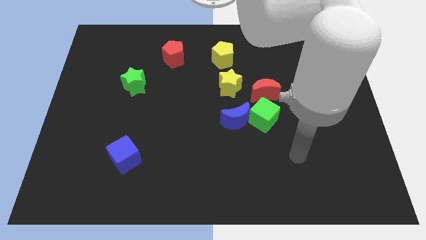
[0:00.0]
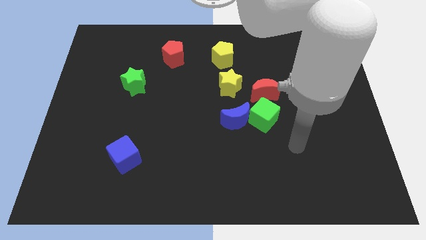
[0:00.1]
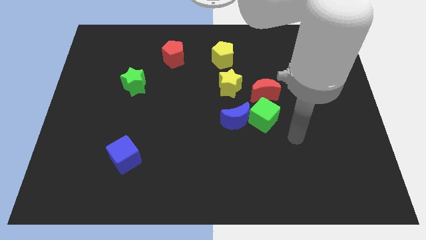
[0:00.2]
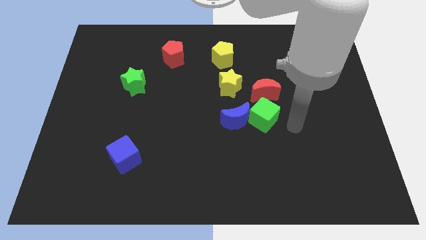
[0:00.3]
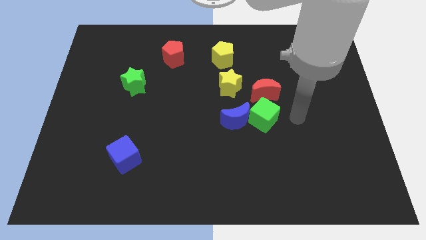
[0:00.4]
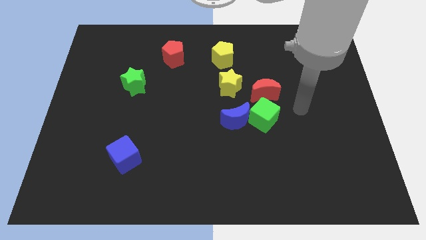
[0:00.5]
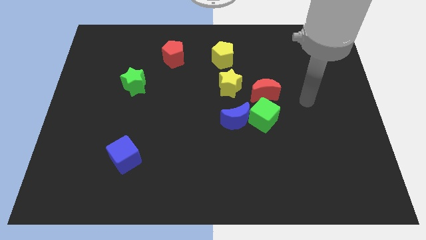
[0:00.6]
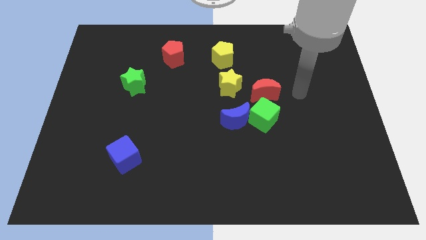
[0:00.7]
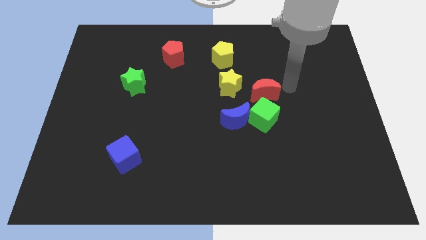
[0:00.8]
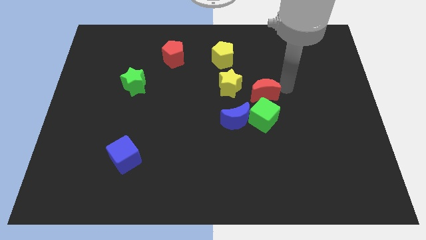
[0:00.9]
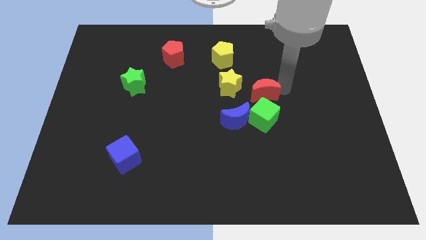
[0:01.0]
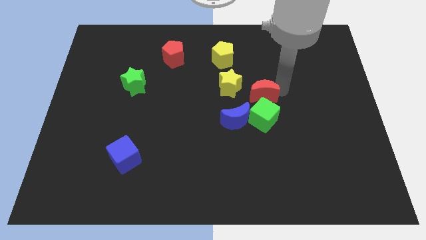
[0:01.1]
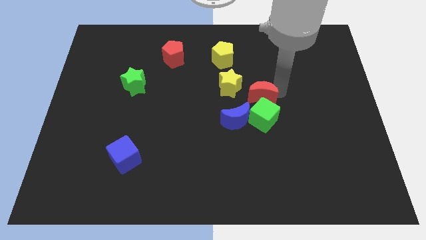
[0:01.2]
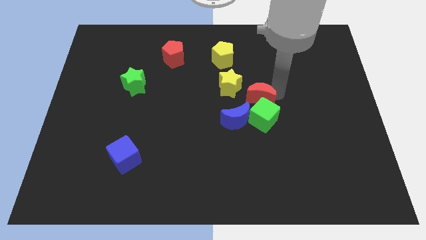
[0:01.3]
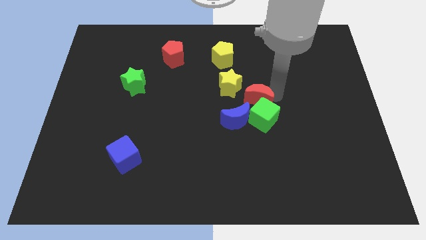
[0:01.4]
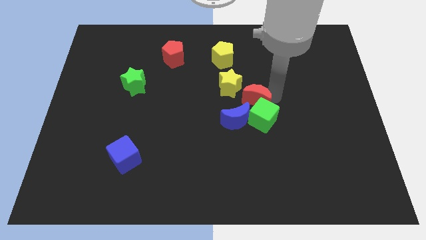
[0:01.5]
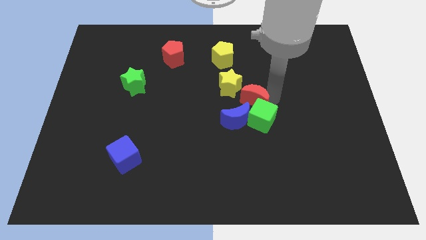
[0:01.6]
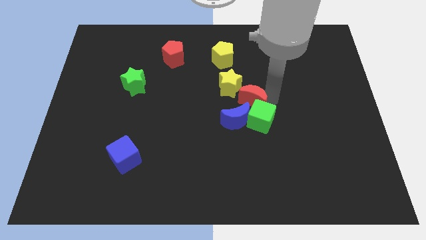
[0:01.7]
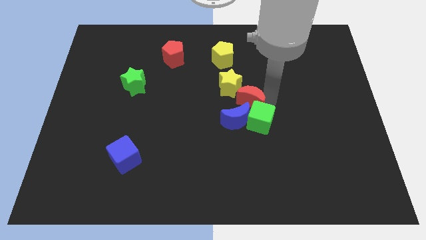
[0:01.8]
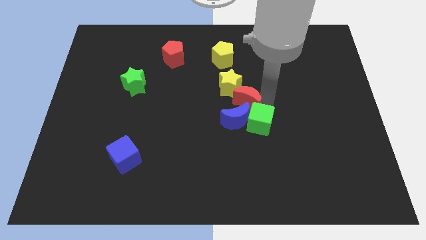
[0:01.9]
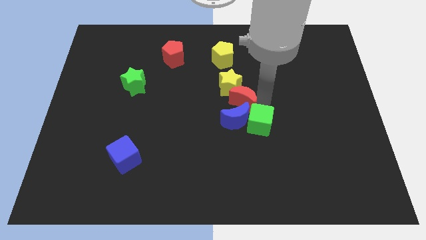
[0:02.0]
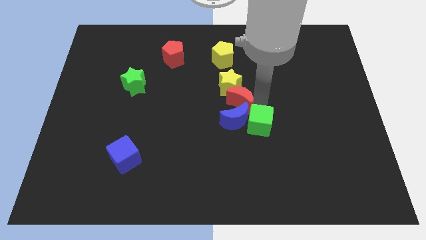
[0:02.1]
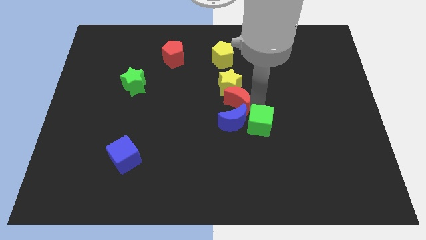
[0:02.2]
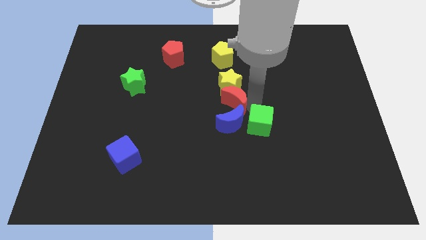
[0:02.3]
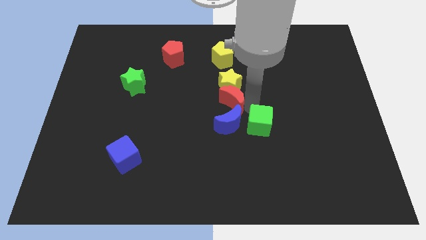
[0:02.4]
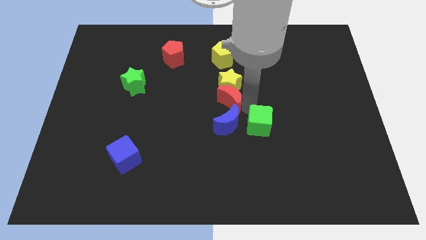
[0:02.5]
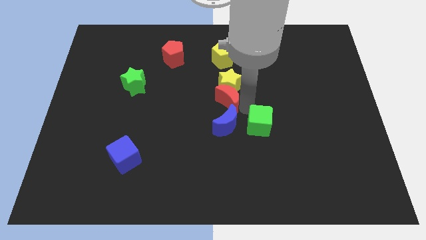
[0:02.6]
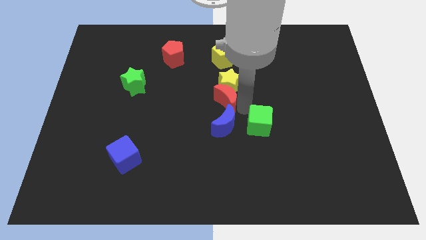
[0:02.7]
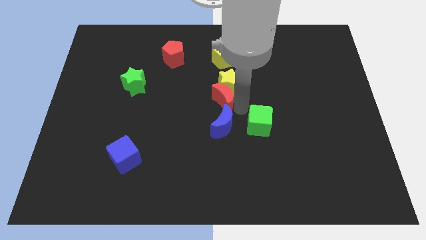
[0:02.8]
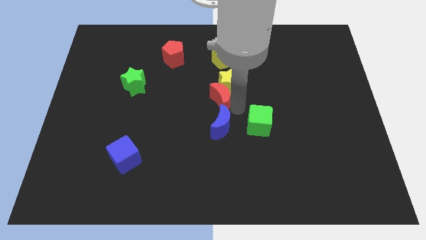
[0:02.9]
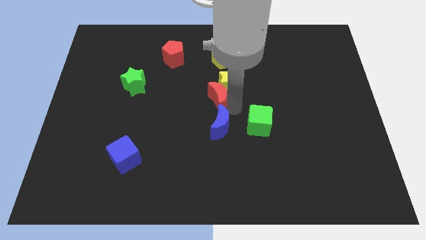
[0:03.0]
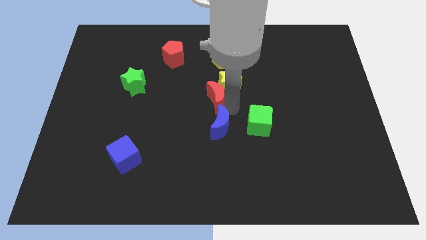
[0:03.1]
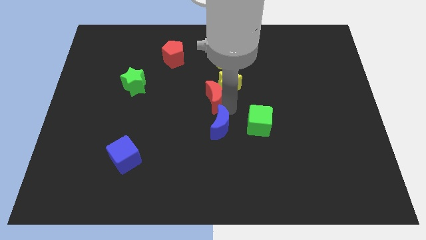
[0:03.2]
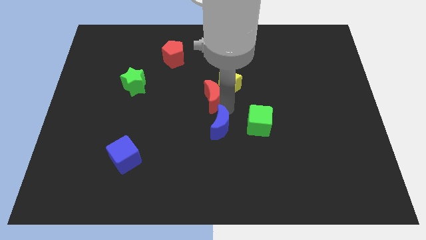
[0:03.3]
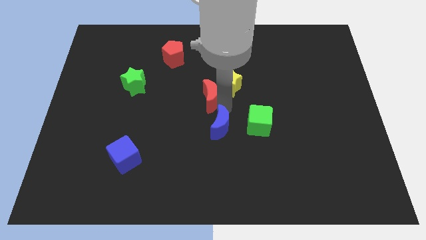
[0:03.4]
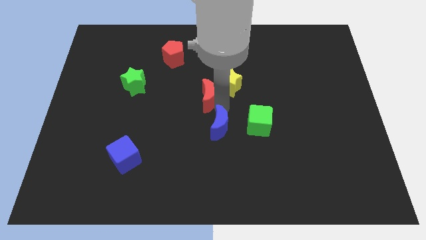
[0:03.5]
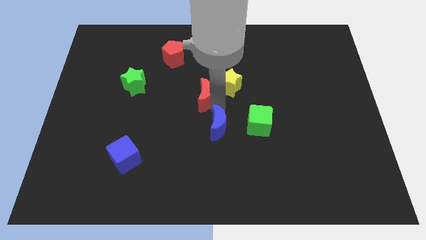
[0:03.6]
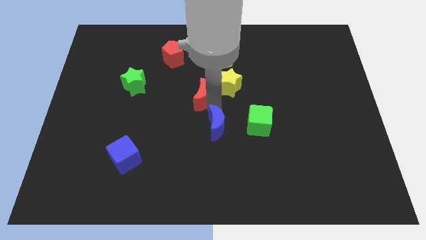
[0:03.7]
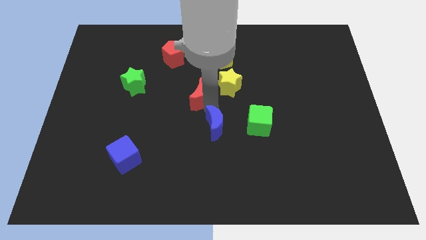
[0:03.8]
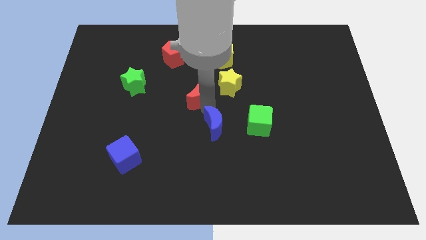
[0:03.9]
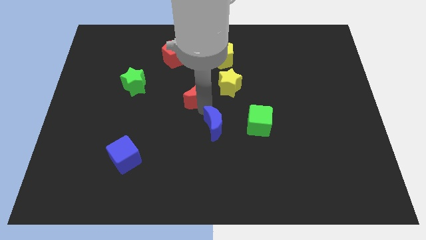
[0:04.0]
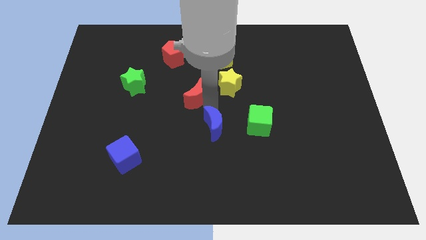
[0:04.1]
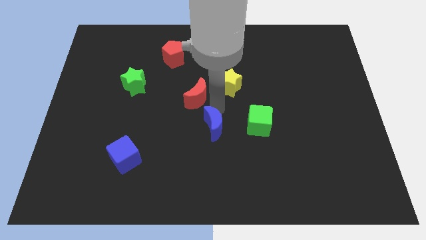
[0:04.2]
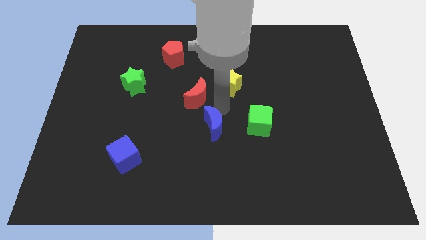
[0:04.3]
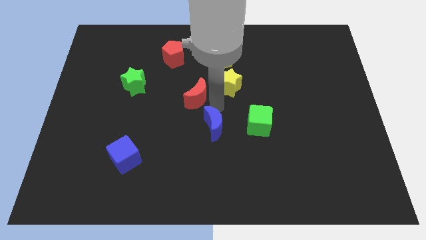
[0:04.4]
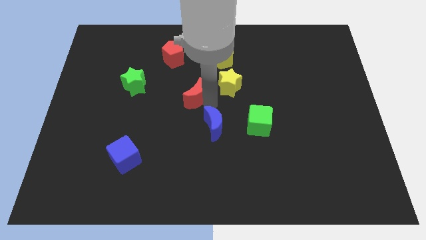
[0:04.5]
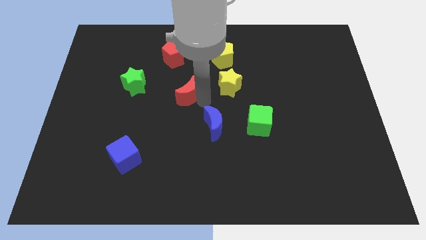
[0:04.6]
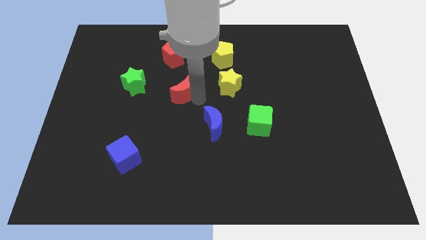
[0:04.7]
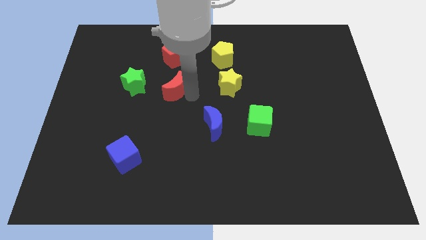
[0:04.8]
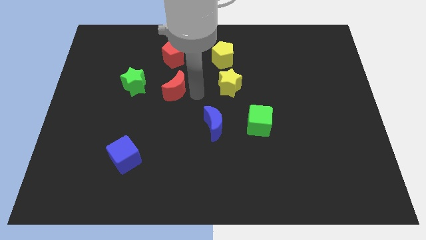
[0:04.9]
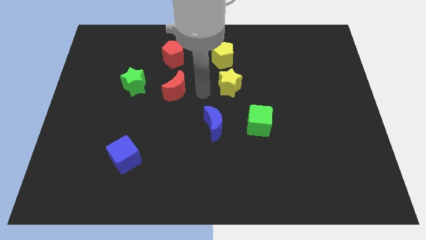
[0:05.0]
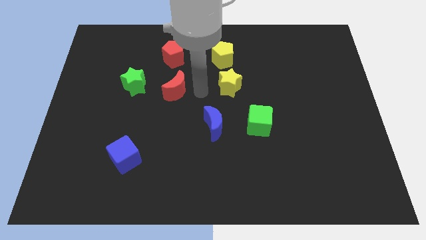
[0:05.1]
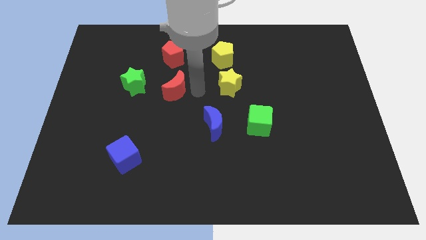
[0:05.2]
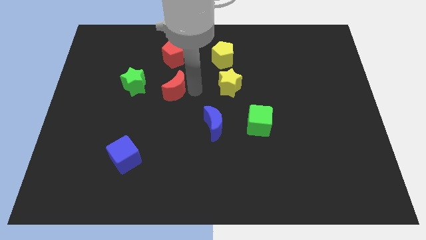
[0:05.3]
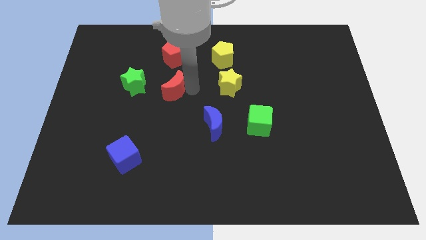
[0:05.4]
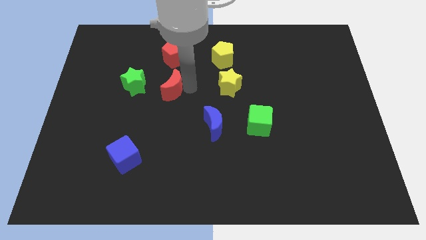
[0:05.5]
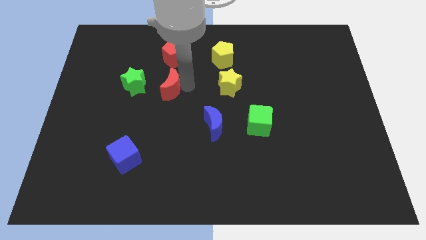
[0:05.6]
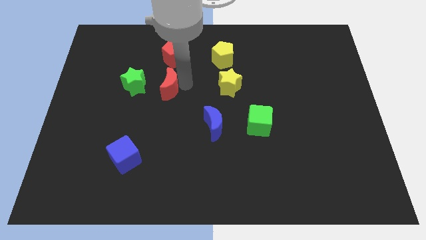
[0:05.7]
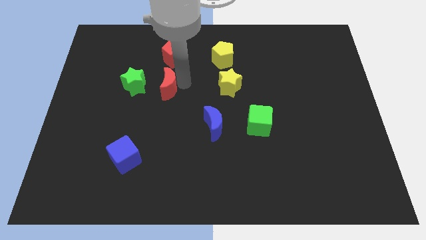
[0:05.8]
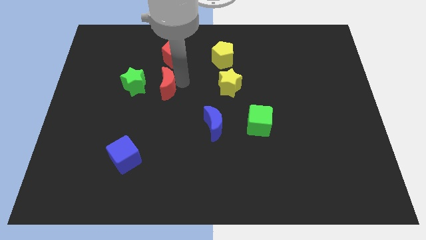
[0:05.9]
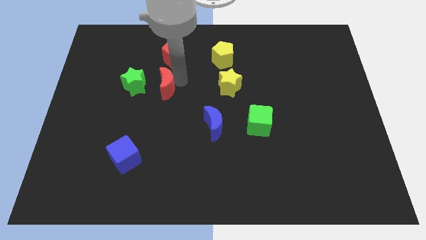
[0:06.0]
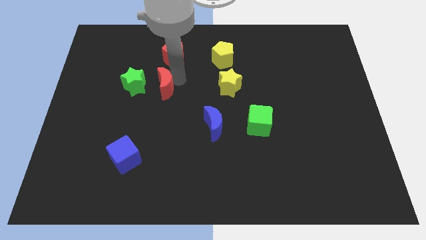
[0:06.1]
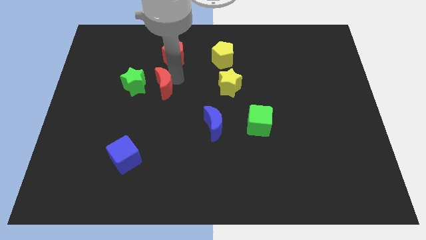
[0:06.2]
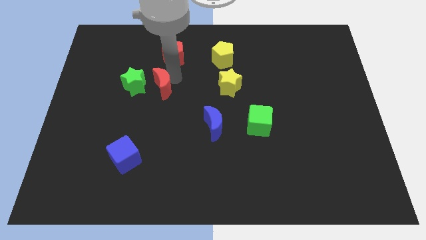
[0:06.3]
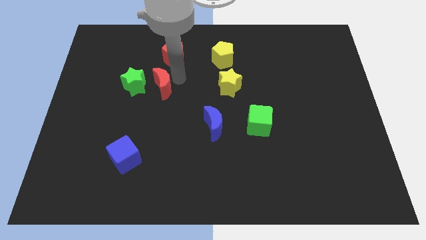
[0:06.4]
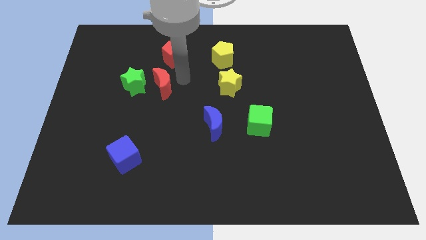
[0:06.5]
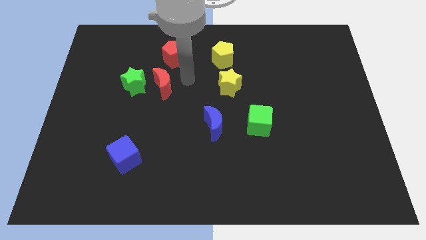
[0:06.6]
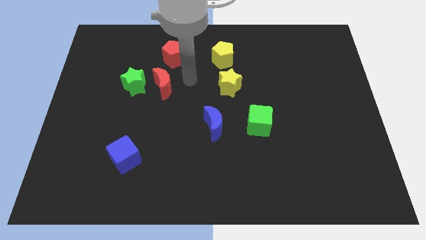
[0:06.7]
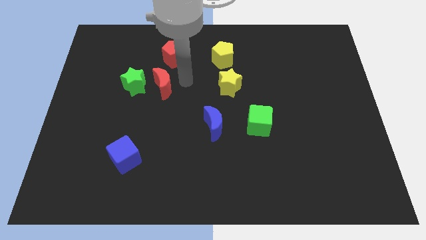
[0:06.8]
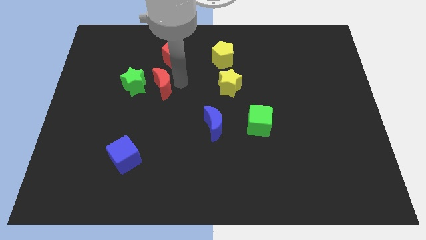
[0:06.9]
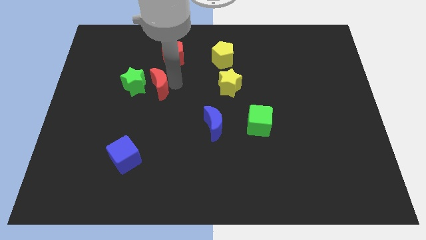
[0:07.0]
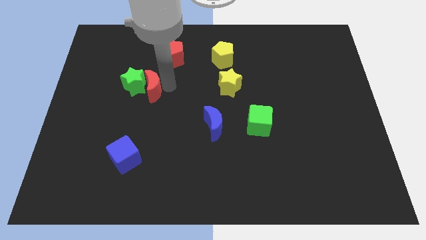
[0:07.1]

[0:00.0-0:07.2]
push the red moon to the green star
